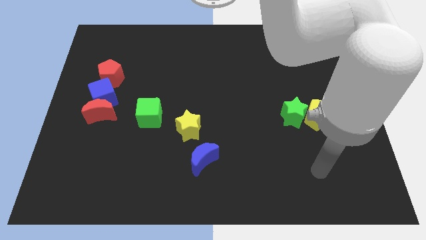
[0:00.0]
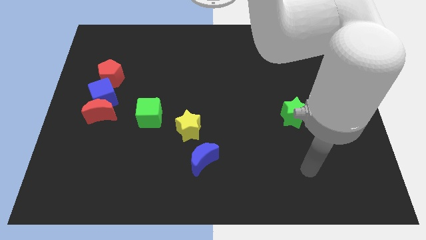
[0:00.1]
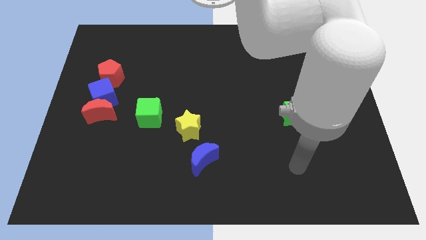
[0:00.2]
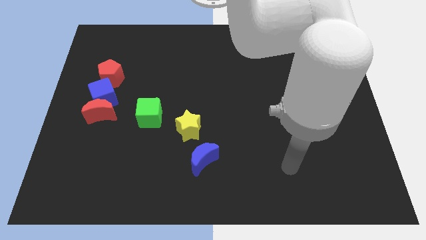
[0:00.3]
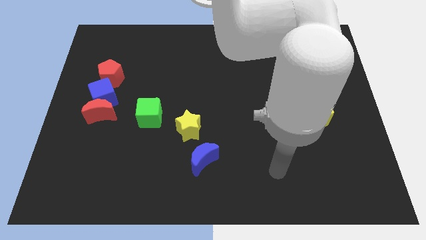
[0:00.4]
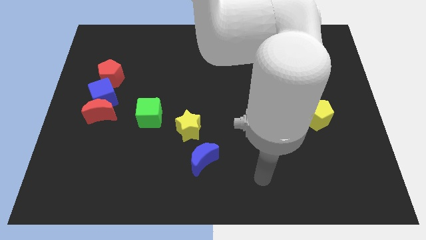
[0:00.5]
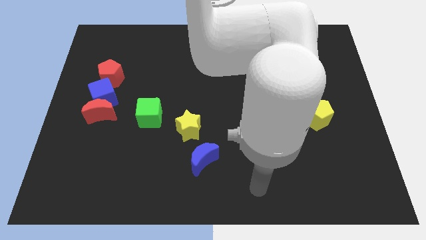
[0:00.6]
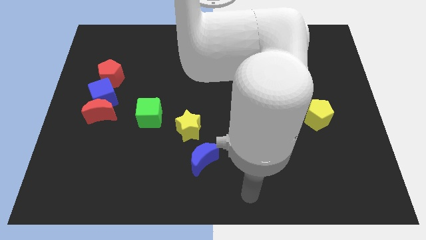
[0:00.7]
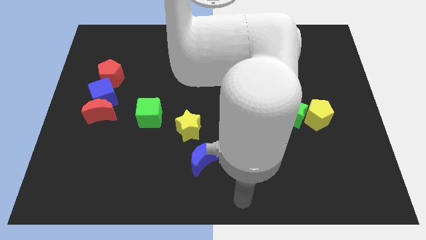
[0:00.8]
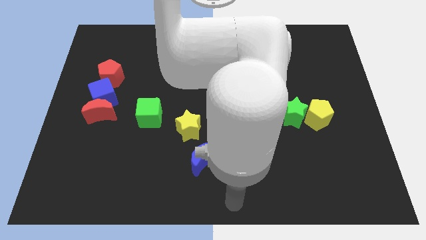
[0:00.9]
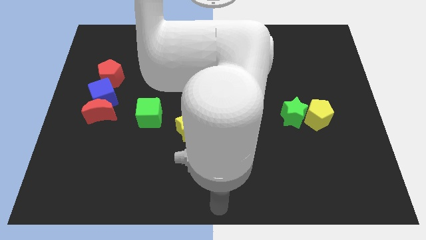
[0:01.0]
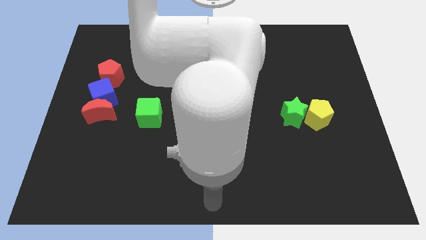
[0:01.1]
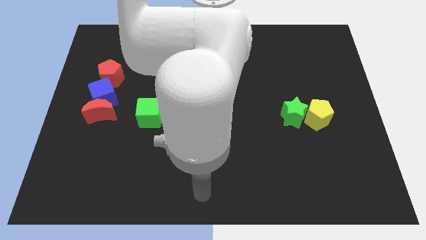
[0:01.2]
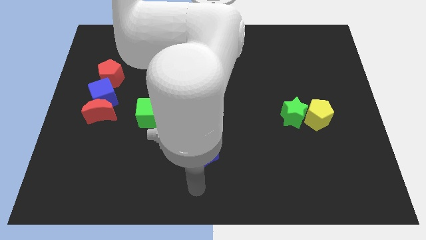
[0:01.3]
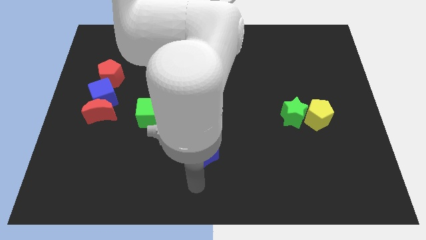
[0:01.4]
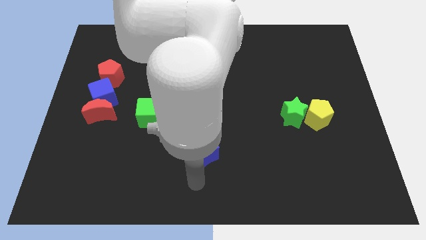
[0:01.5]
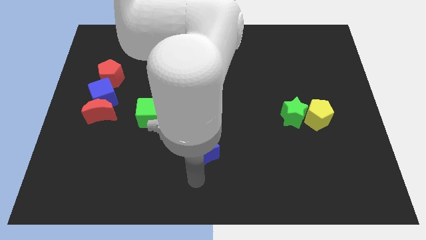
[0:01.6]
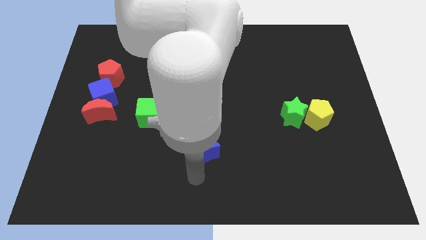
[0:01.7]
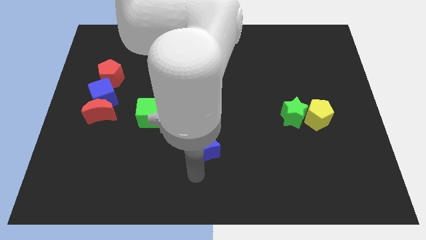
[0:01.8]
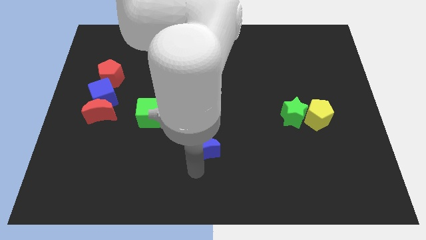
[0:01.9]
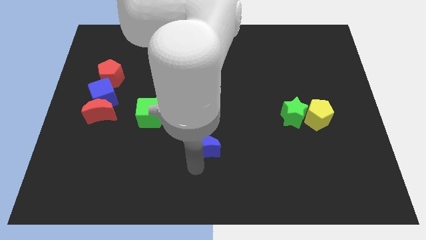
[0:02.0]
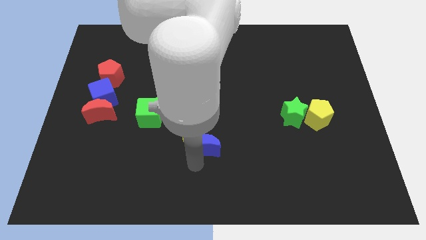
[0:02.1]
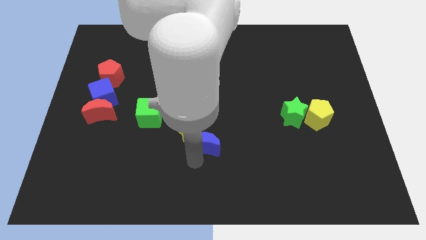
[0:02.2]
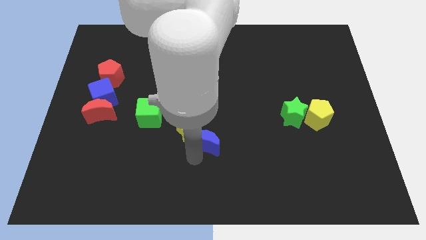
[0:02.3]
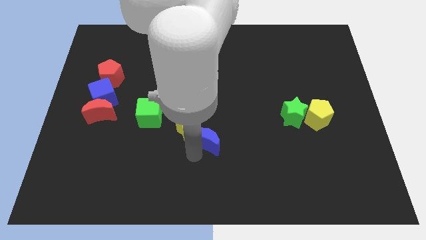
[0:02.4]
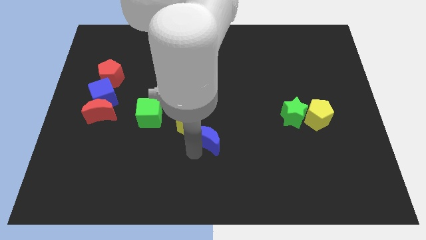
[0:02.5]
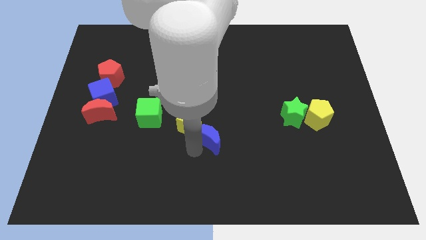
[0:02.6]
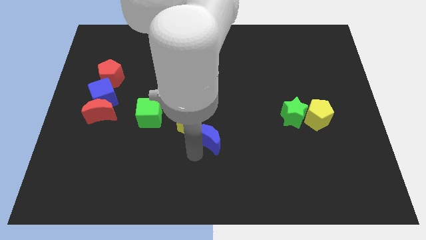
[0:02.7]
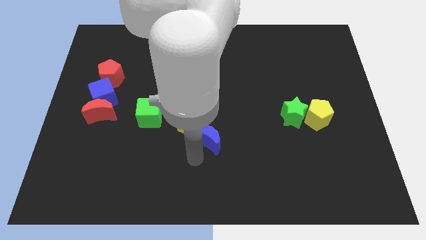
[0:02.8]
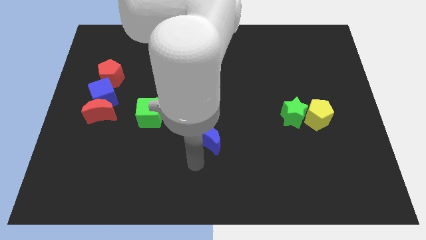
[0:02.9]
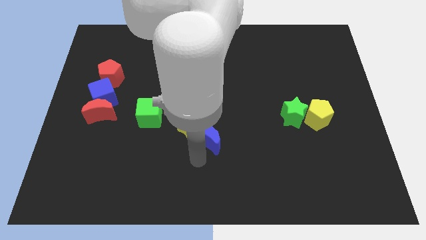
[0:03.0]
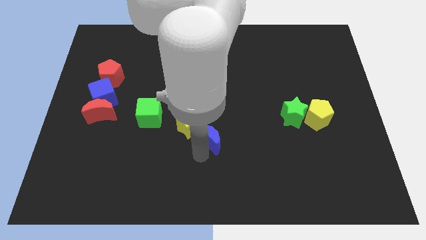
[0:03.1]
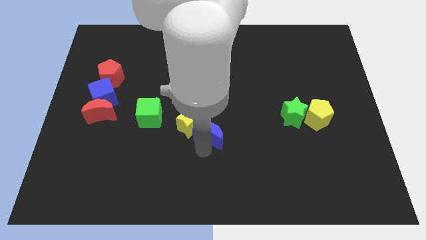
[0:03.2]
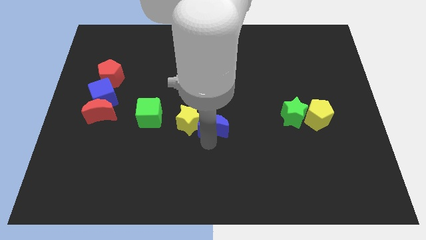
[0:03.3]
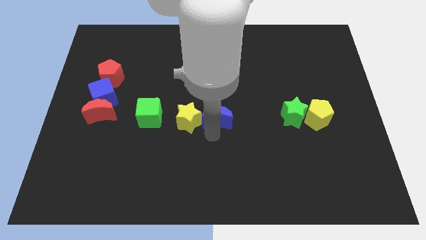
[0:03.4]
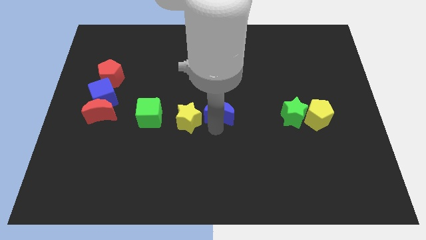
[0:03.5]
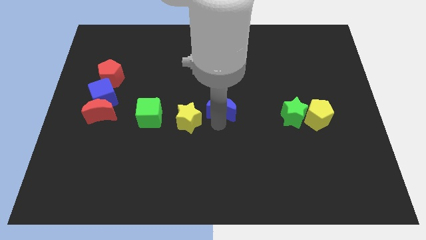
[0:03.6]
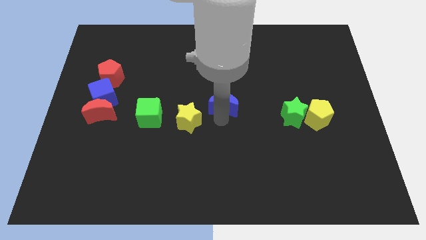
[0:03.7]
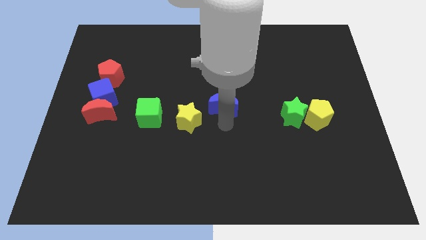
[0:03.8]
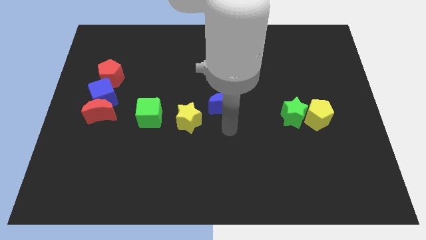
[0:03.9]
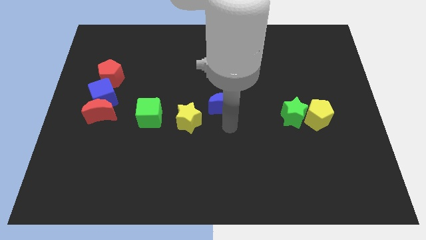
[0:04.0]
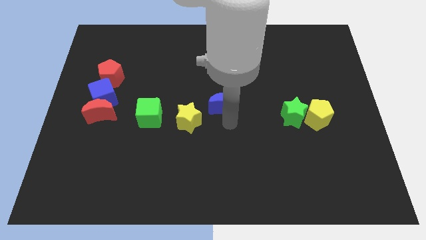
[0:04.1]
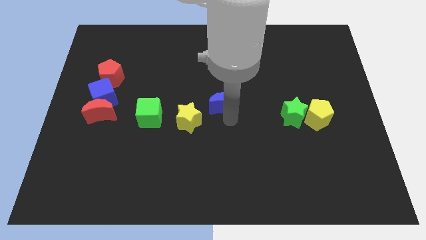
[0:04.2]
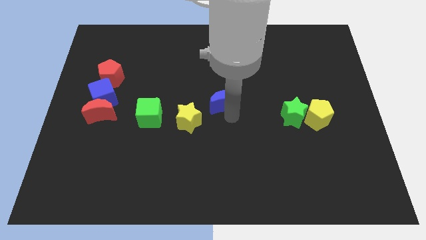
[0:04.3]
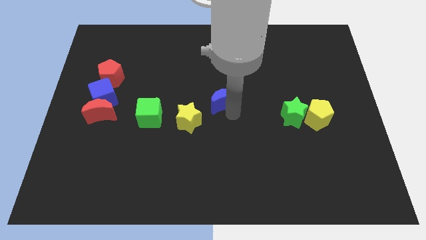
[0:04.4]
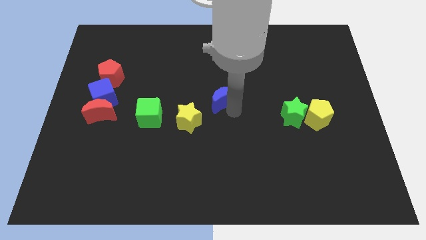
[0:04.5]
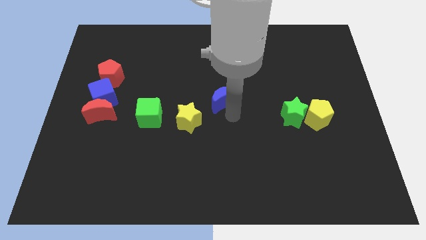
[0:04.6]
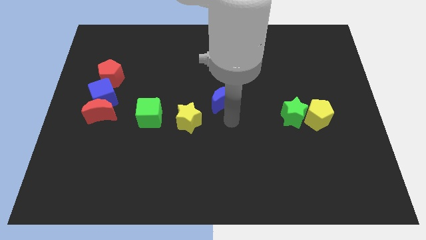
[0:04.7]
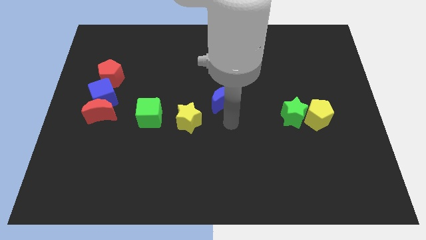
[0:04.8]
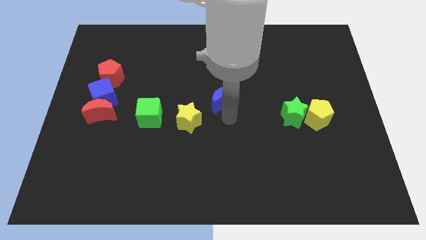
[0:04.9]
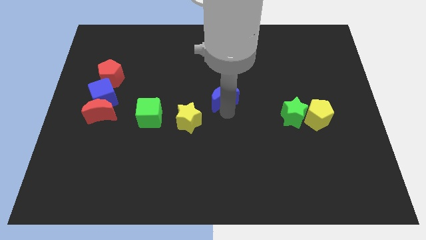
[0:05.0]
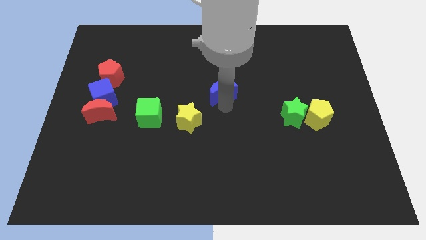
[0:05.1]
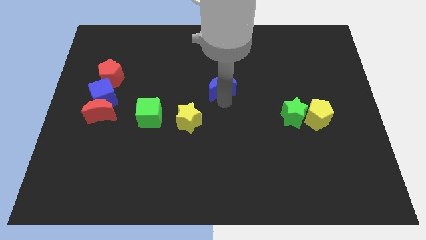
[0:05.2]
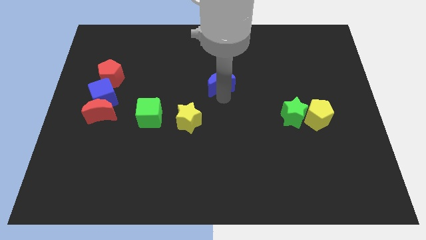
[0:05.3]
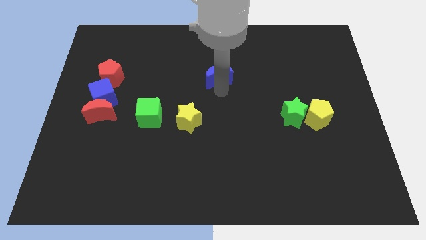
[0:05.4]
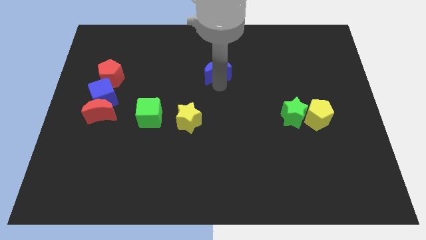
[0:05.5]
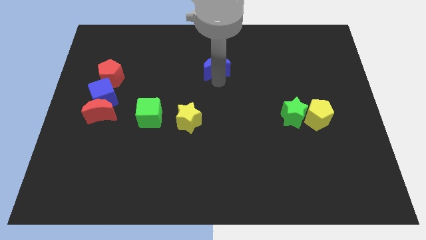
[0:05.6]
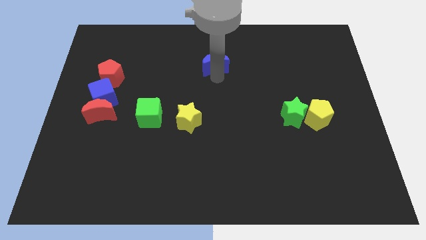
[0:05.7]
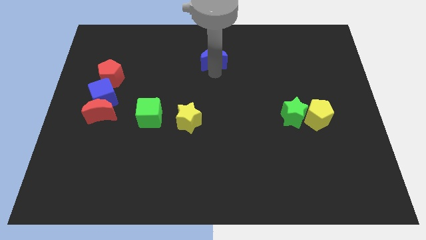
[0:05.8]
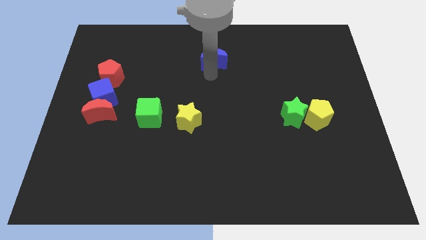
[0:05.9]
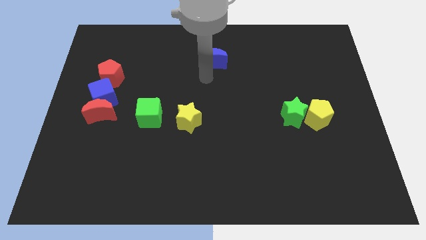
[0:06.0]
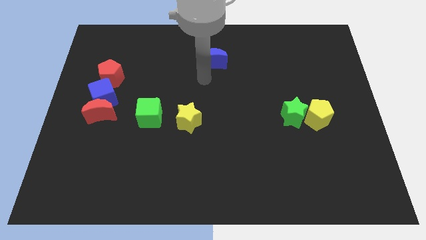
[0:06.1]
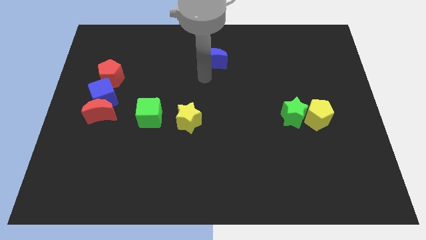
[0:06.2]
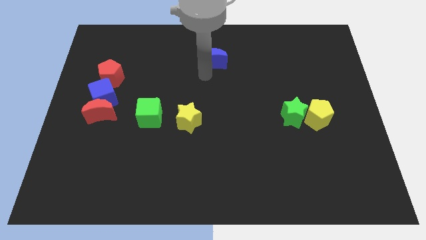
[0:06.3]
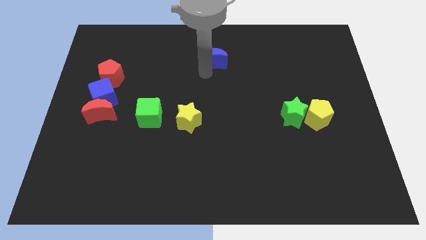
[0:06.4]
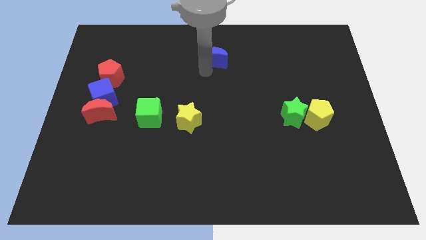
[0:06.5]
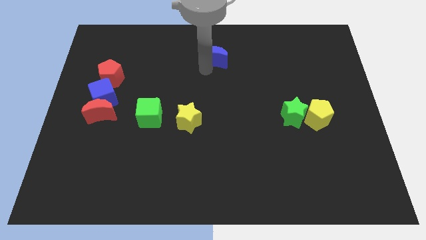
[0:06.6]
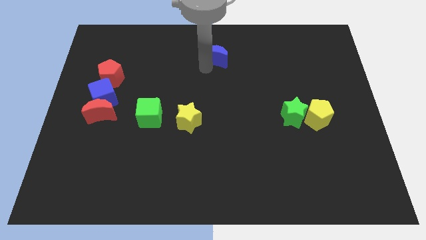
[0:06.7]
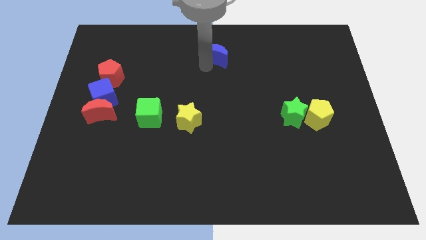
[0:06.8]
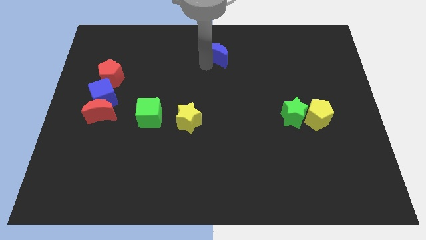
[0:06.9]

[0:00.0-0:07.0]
move the blue moon to the top side
